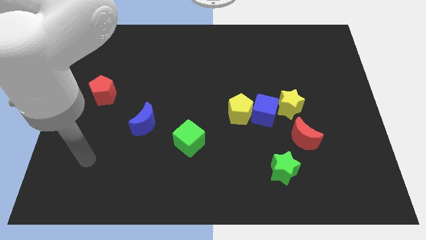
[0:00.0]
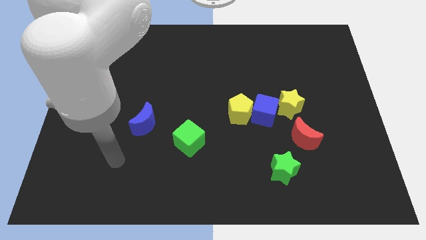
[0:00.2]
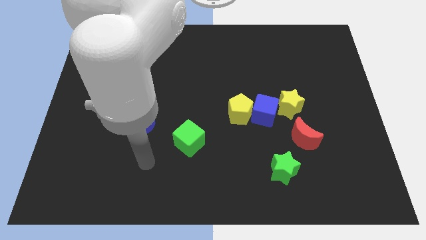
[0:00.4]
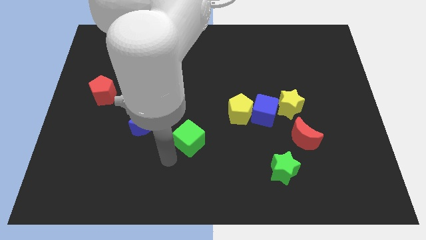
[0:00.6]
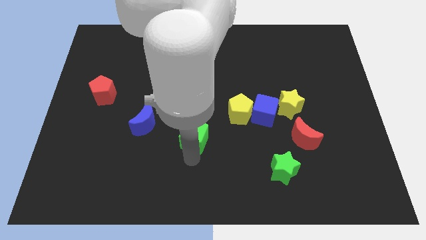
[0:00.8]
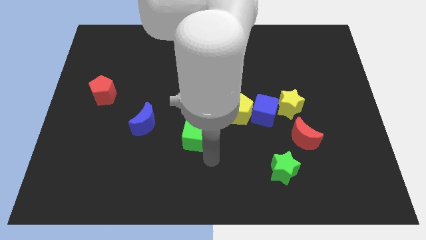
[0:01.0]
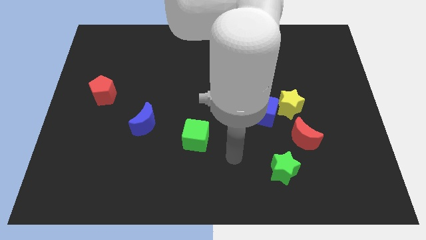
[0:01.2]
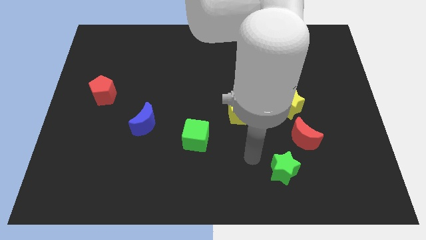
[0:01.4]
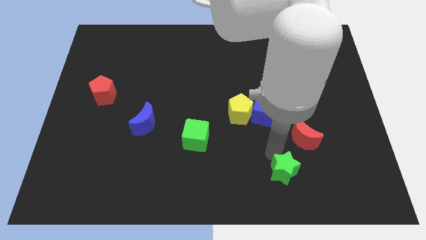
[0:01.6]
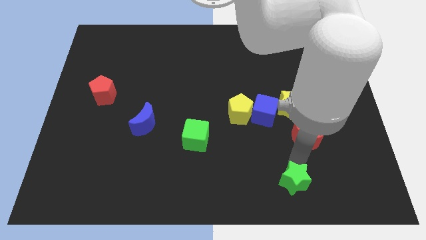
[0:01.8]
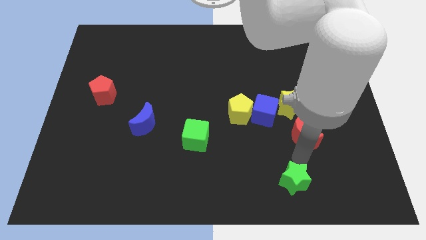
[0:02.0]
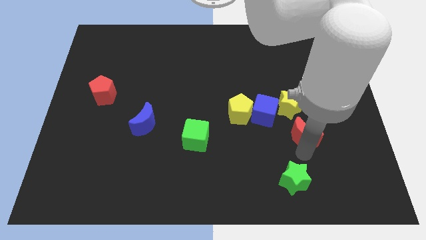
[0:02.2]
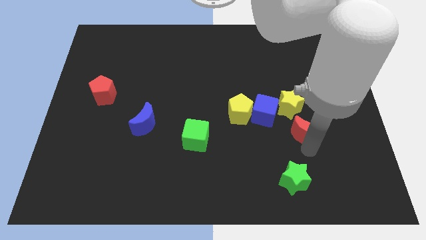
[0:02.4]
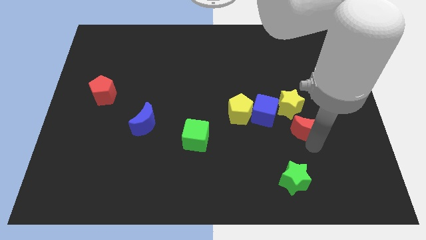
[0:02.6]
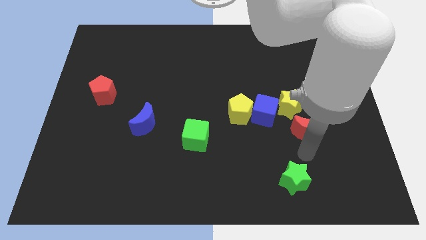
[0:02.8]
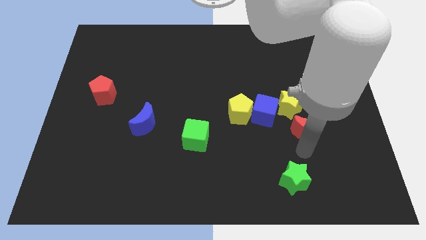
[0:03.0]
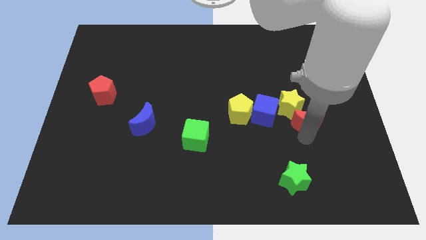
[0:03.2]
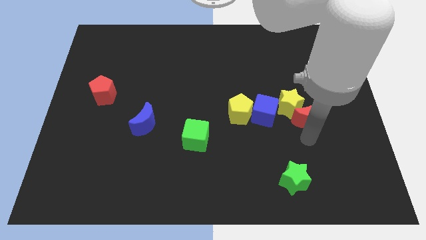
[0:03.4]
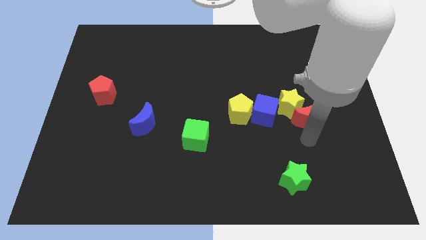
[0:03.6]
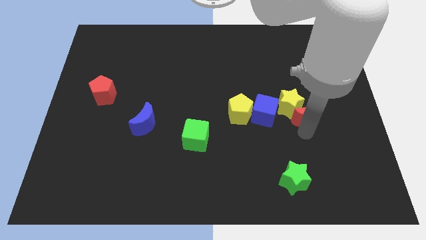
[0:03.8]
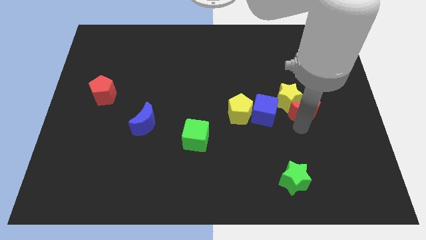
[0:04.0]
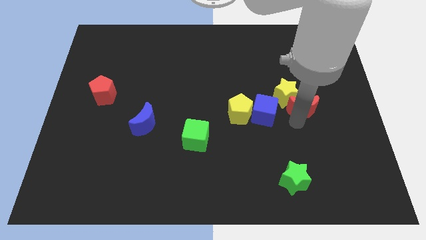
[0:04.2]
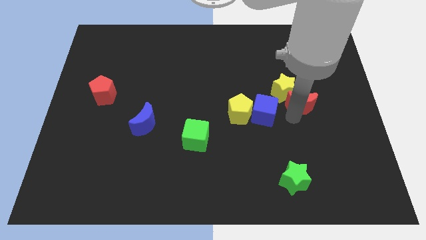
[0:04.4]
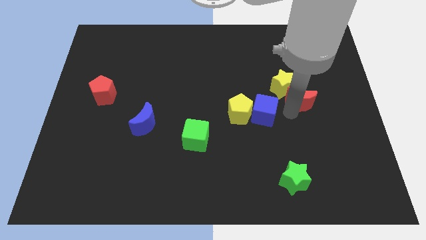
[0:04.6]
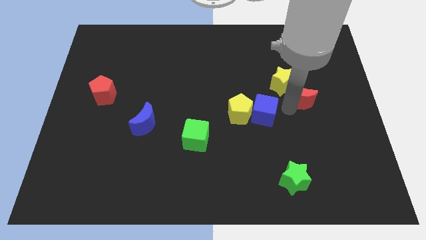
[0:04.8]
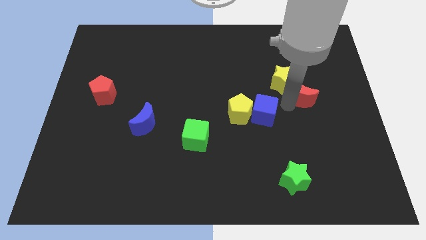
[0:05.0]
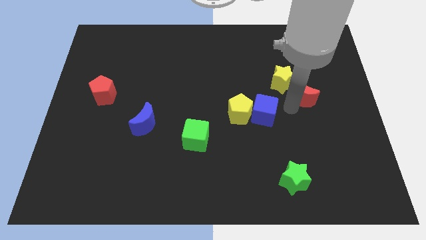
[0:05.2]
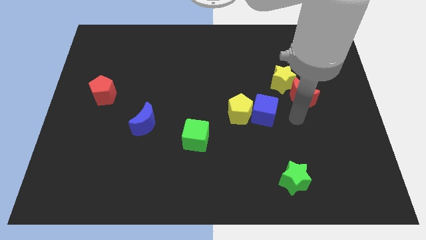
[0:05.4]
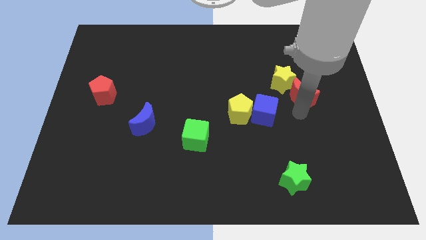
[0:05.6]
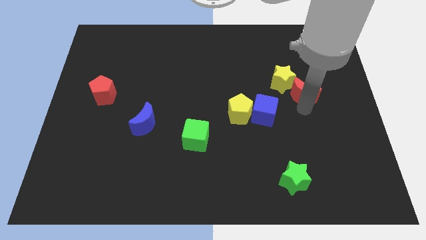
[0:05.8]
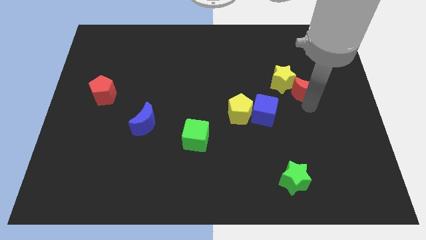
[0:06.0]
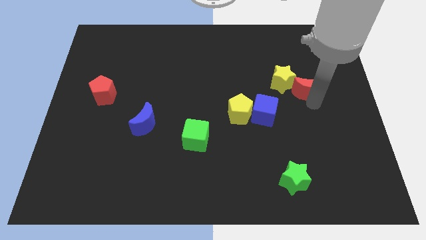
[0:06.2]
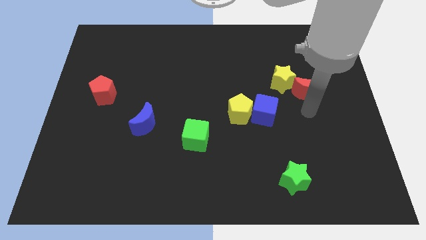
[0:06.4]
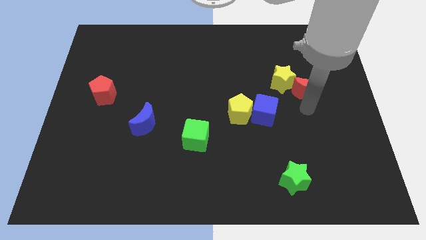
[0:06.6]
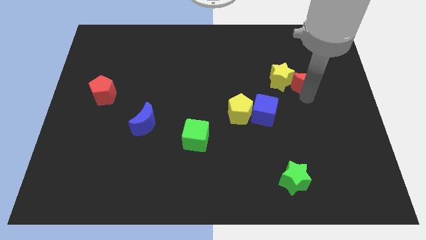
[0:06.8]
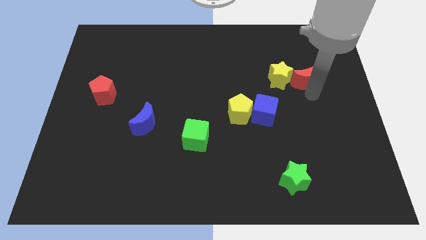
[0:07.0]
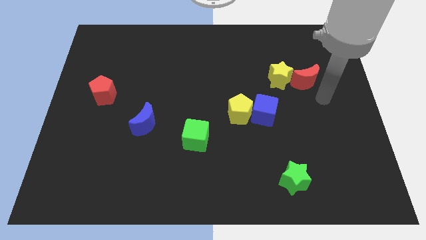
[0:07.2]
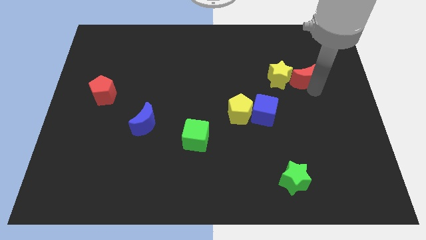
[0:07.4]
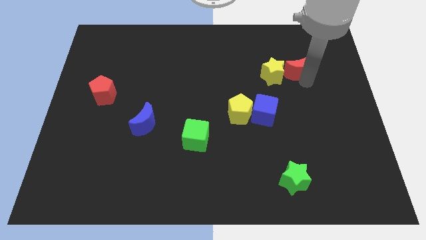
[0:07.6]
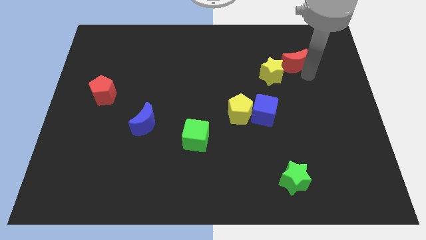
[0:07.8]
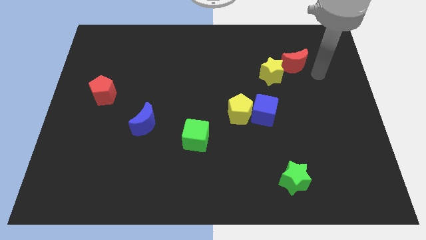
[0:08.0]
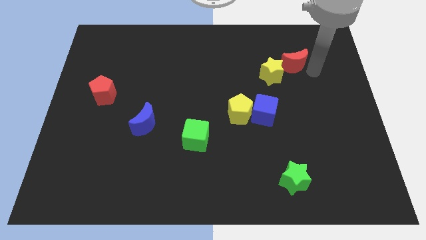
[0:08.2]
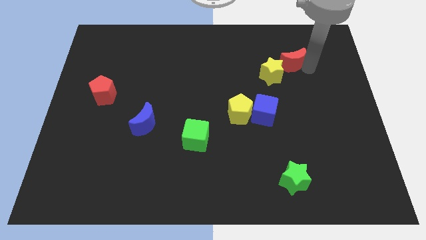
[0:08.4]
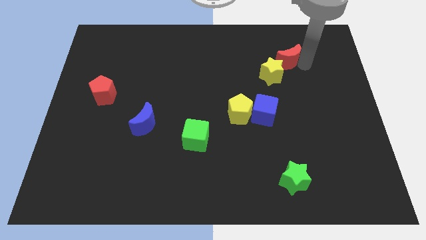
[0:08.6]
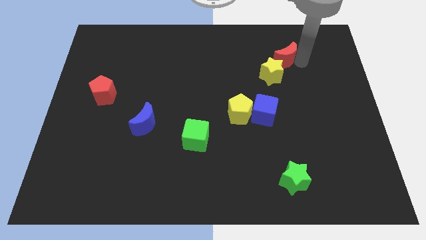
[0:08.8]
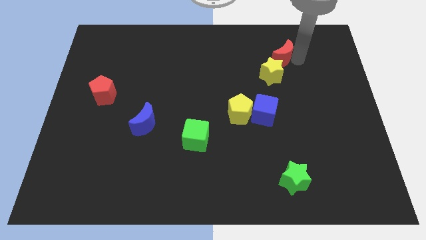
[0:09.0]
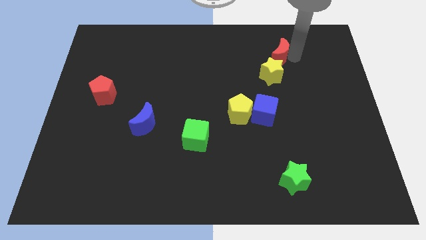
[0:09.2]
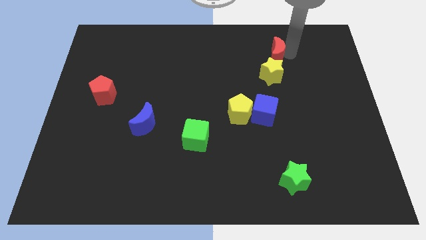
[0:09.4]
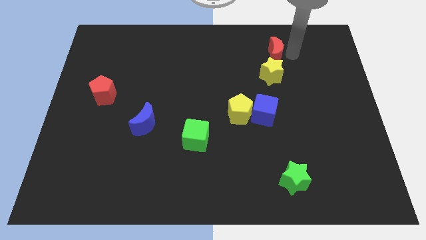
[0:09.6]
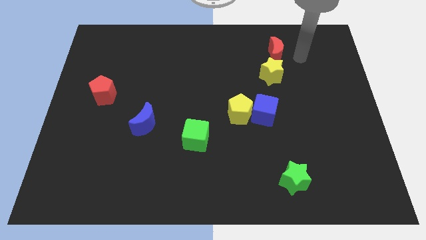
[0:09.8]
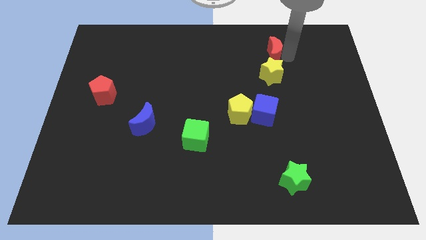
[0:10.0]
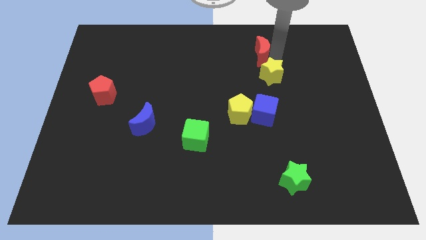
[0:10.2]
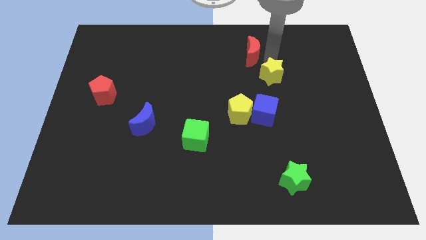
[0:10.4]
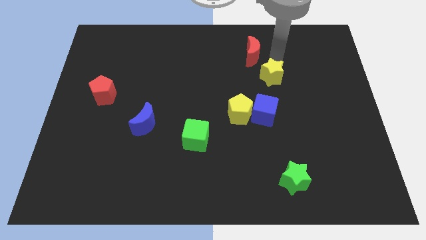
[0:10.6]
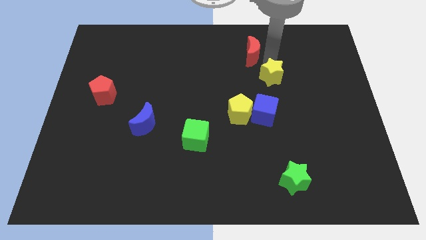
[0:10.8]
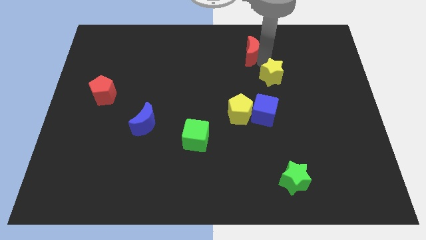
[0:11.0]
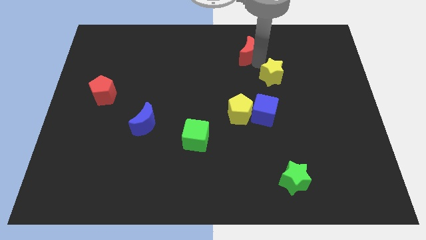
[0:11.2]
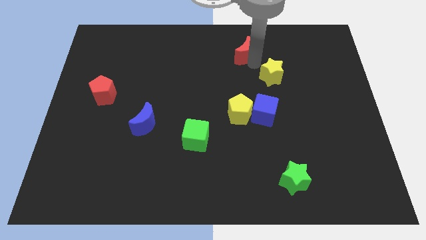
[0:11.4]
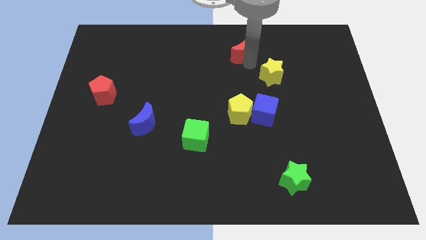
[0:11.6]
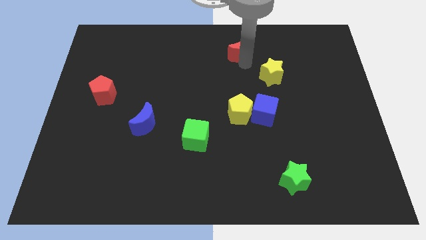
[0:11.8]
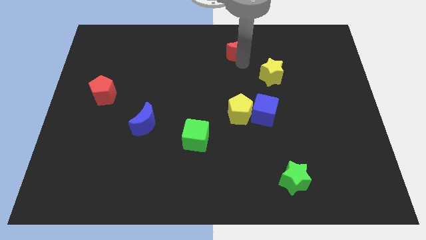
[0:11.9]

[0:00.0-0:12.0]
push the red moon to the top
